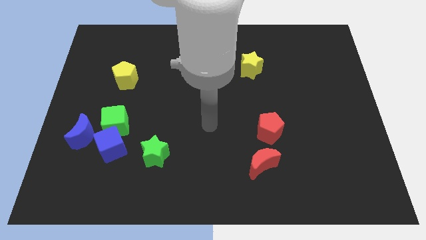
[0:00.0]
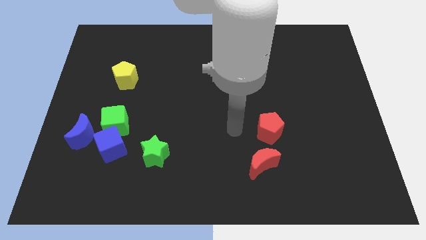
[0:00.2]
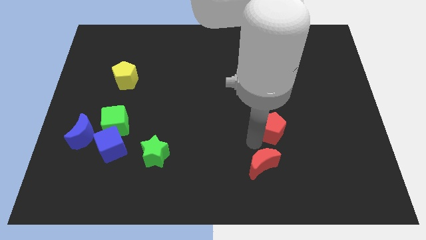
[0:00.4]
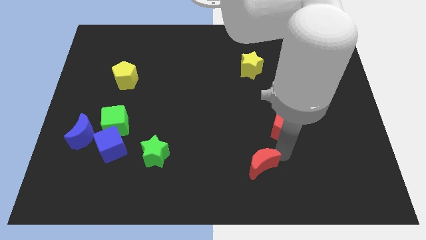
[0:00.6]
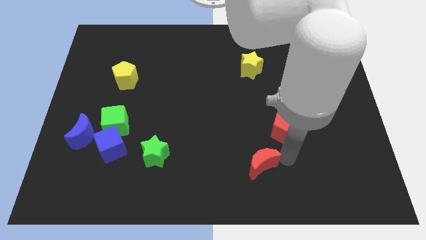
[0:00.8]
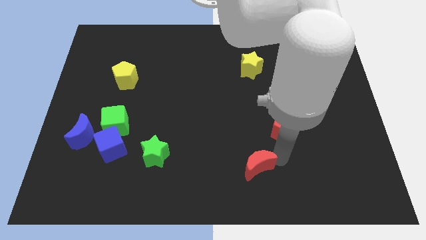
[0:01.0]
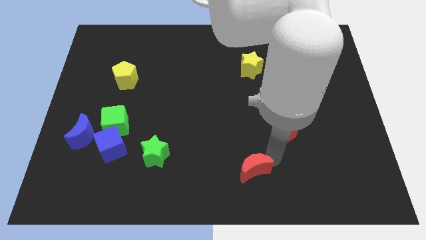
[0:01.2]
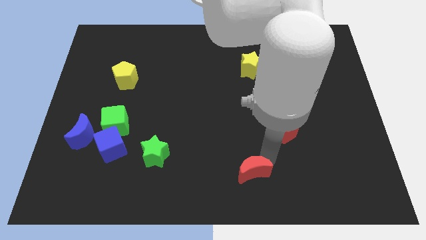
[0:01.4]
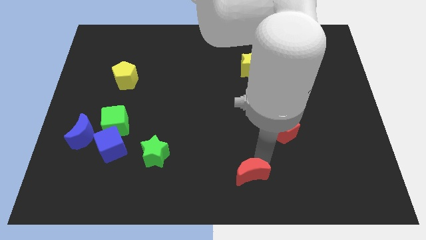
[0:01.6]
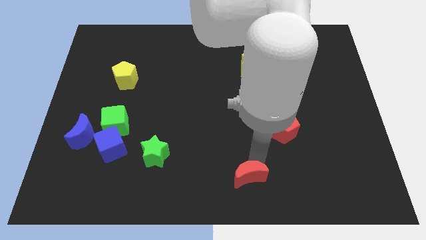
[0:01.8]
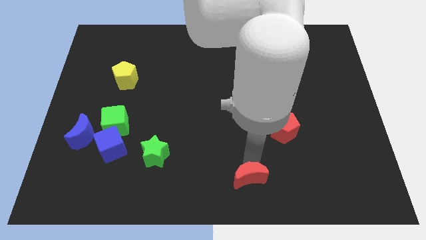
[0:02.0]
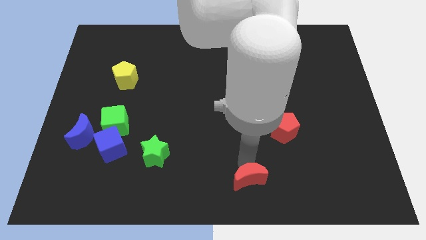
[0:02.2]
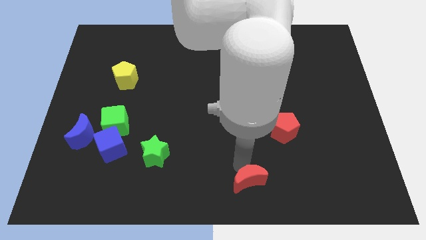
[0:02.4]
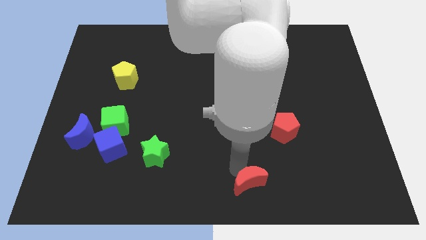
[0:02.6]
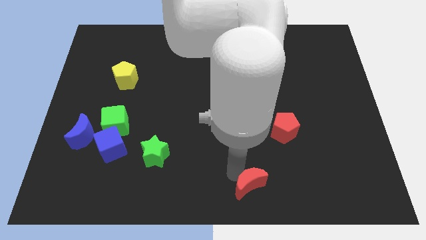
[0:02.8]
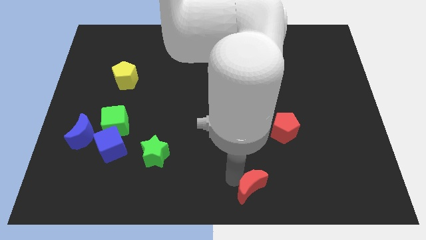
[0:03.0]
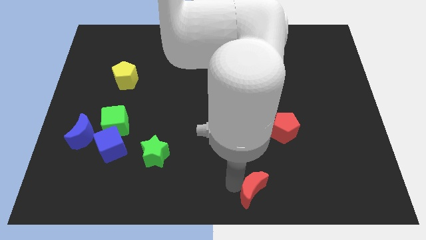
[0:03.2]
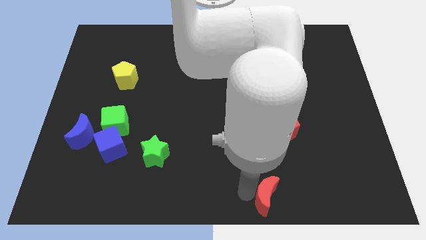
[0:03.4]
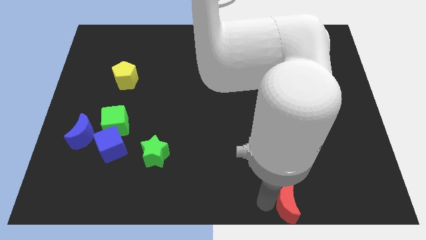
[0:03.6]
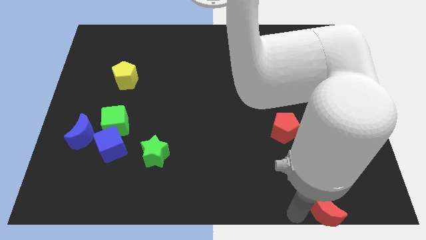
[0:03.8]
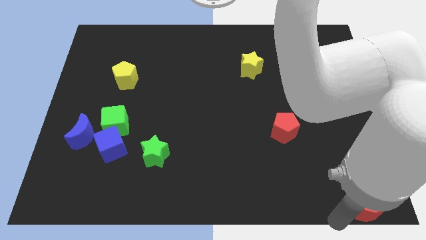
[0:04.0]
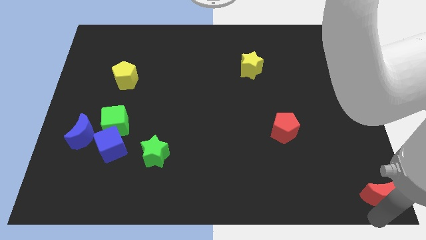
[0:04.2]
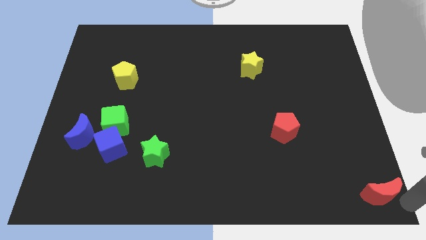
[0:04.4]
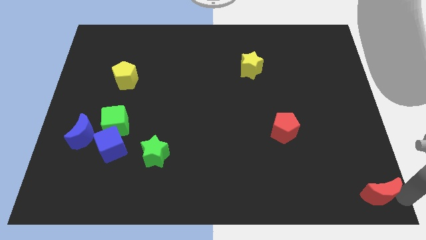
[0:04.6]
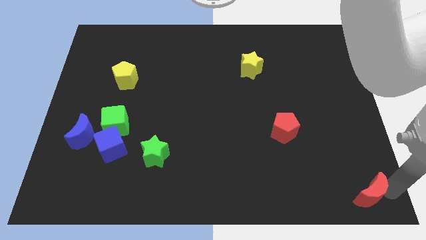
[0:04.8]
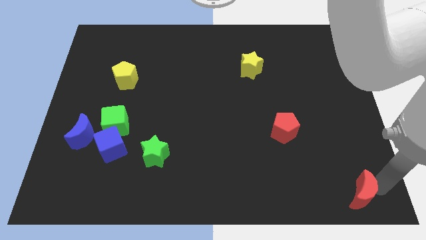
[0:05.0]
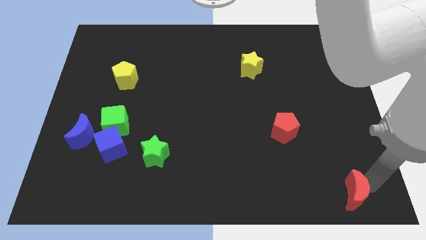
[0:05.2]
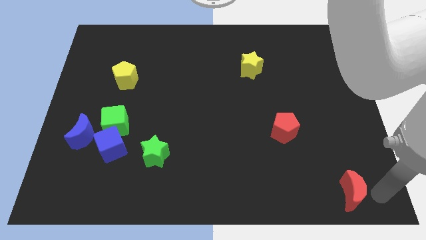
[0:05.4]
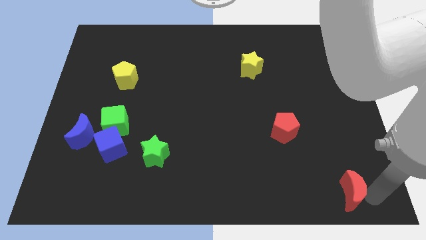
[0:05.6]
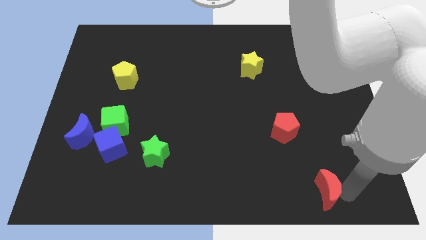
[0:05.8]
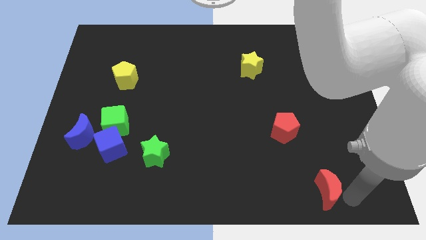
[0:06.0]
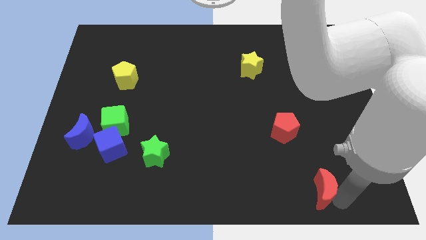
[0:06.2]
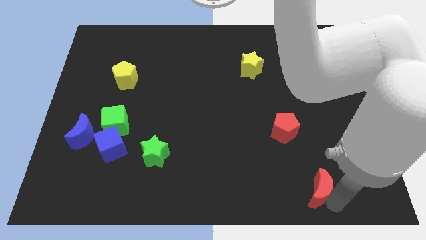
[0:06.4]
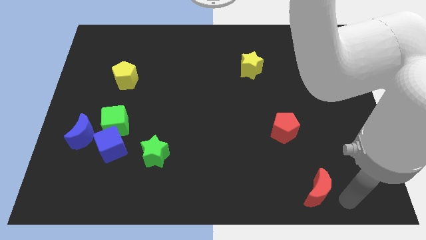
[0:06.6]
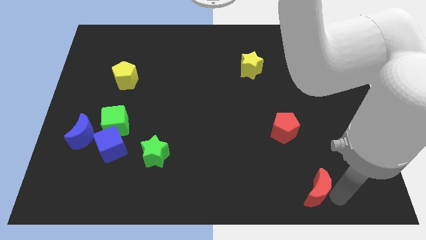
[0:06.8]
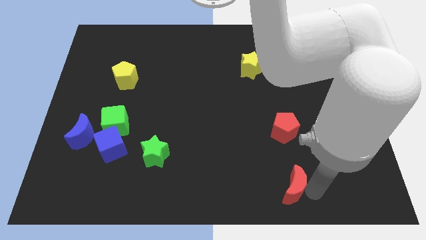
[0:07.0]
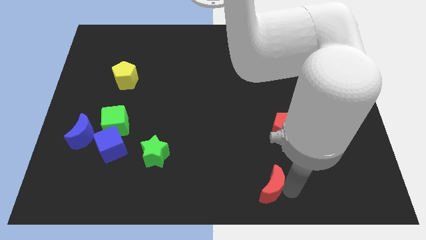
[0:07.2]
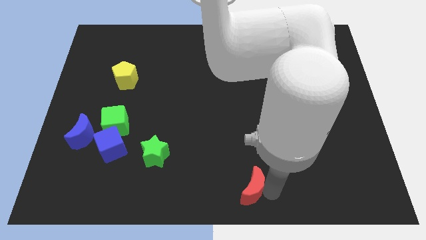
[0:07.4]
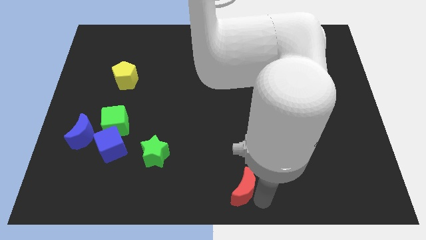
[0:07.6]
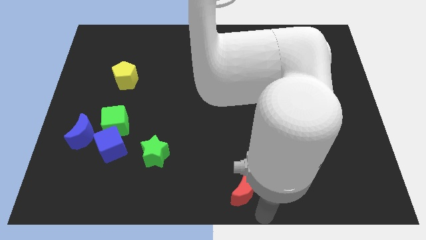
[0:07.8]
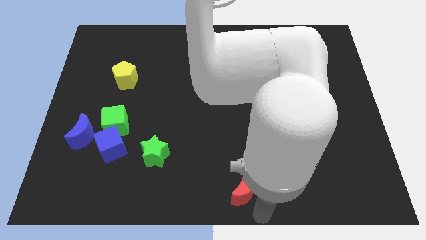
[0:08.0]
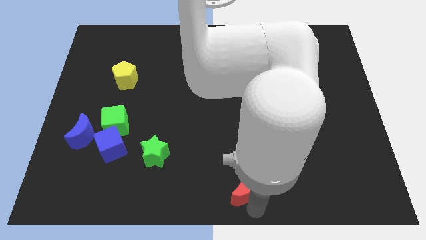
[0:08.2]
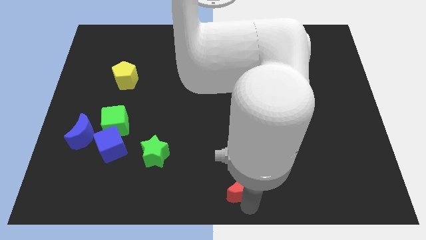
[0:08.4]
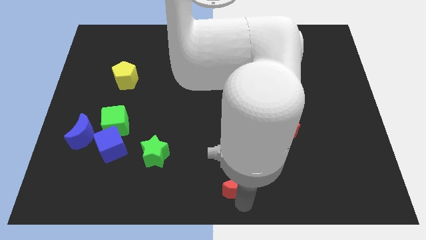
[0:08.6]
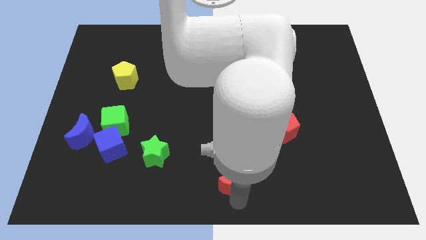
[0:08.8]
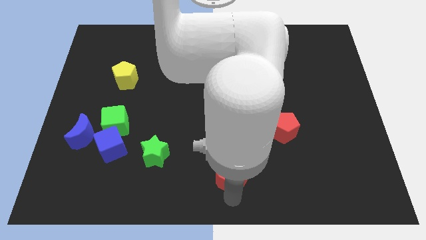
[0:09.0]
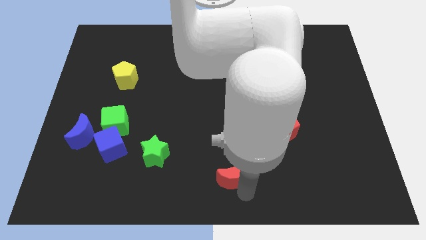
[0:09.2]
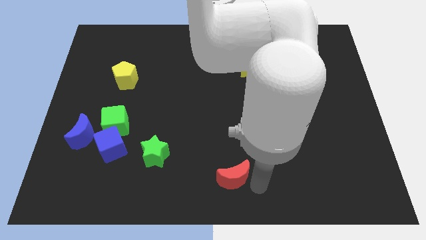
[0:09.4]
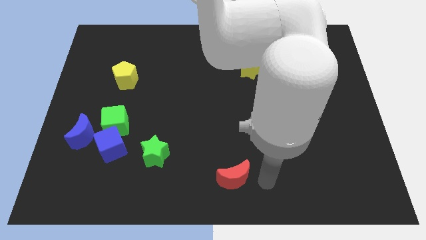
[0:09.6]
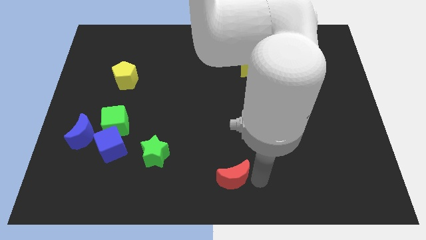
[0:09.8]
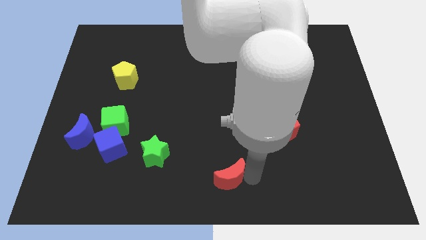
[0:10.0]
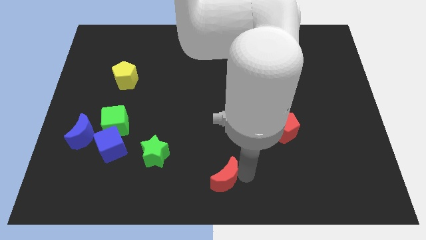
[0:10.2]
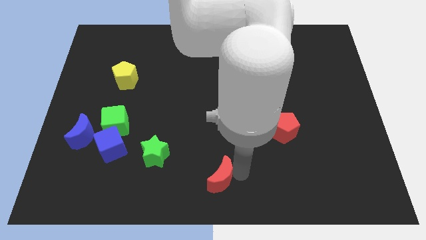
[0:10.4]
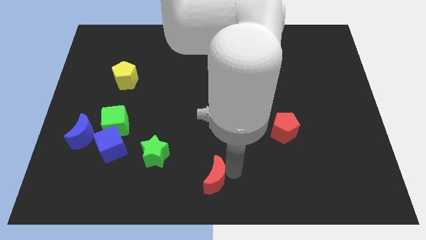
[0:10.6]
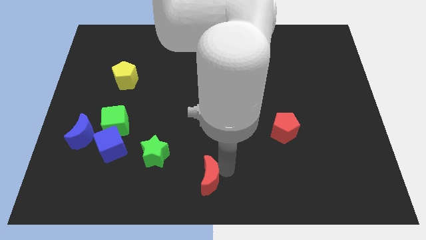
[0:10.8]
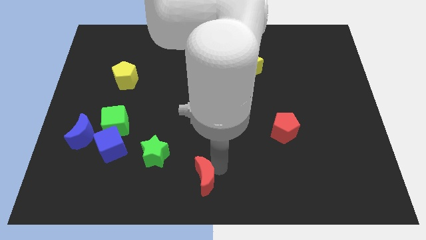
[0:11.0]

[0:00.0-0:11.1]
move the red moon to the bottom right side of the green star

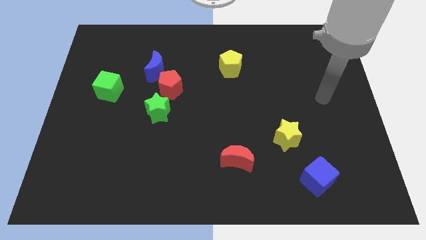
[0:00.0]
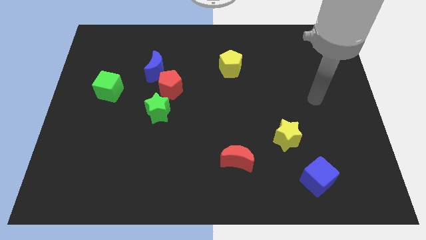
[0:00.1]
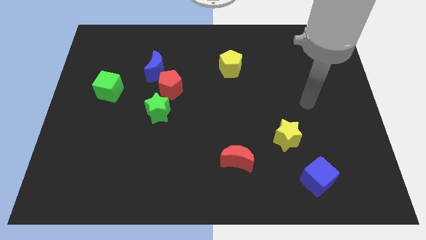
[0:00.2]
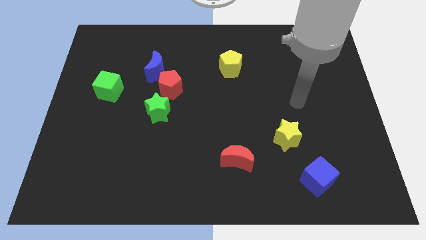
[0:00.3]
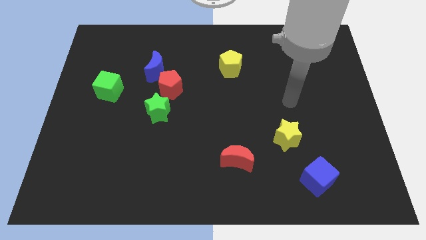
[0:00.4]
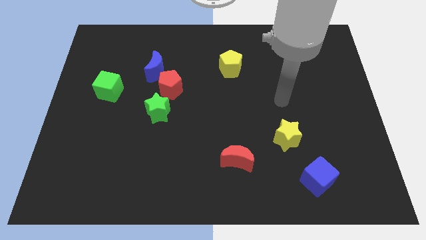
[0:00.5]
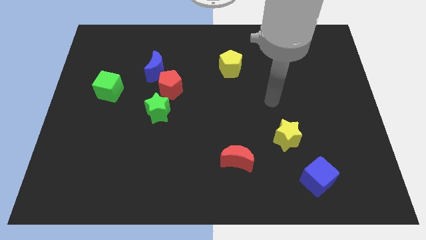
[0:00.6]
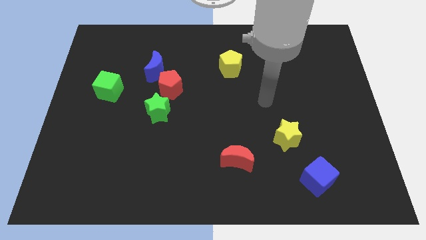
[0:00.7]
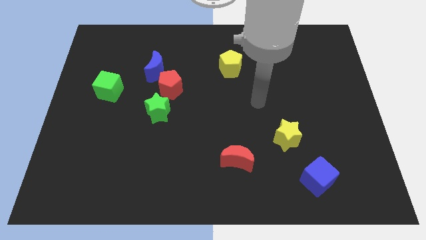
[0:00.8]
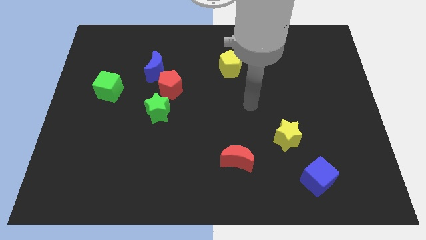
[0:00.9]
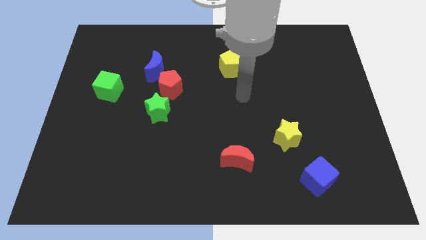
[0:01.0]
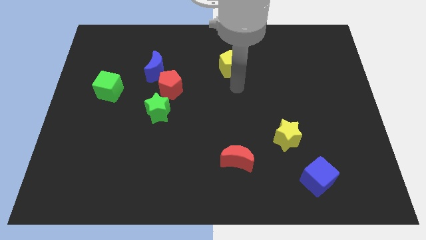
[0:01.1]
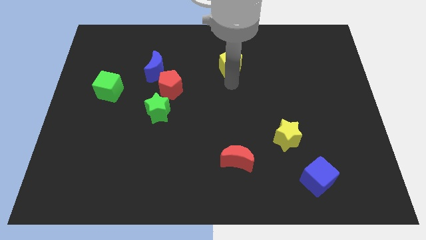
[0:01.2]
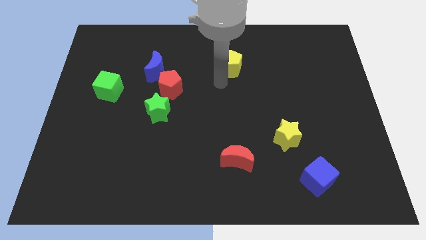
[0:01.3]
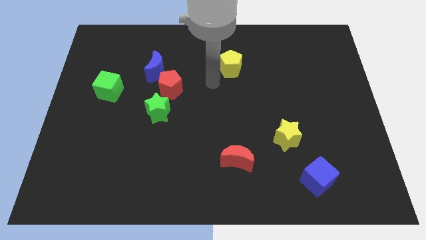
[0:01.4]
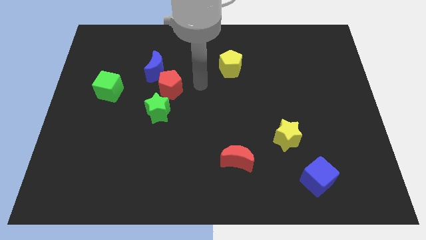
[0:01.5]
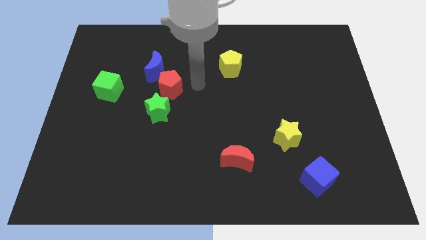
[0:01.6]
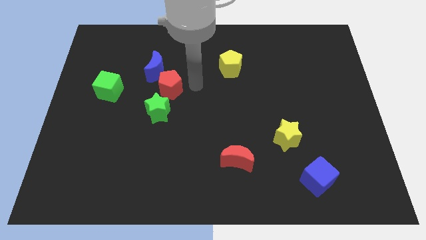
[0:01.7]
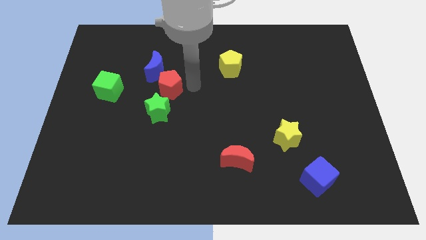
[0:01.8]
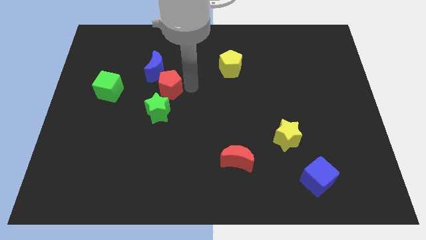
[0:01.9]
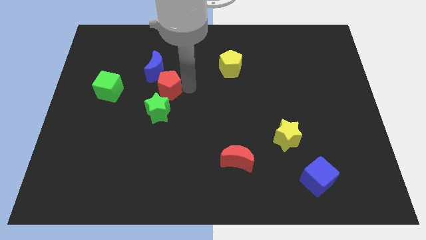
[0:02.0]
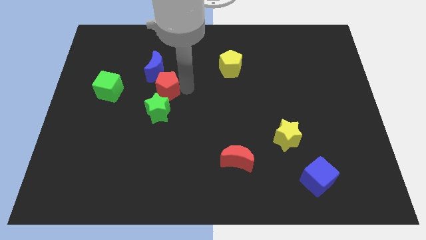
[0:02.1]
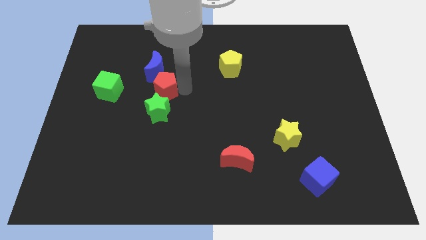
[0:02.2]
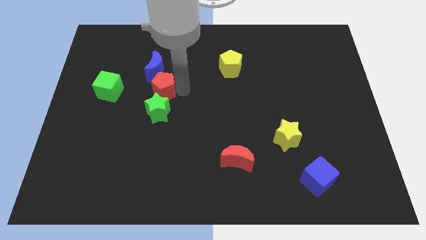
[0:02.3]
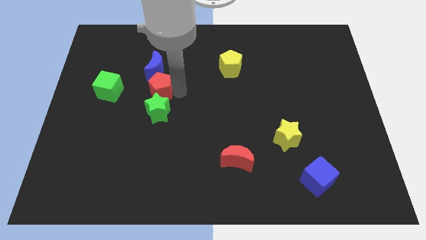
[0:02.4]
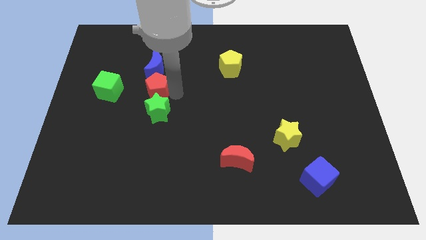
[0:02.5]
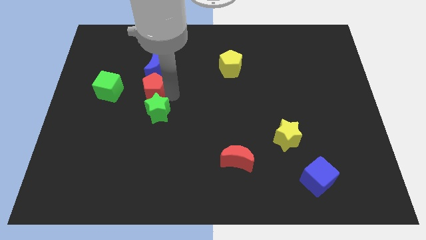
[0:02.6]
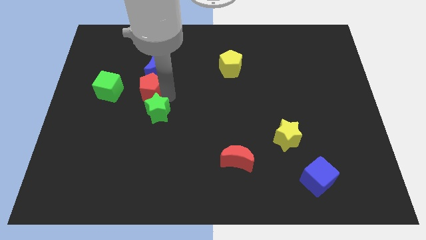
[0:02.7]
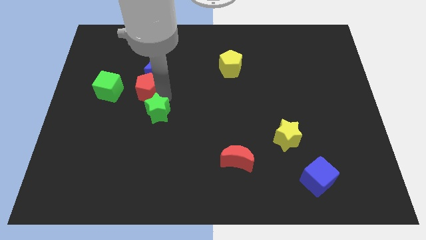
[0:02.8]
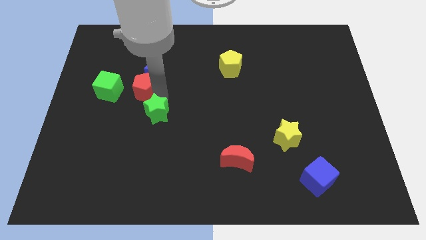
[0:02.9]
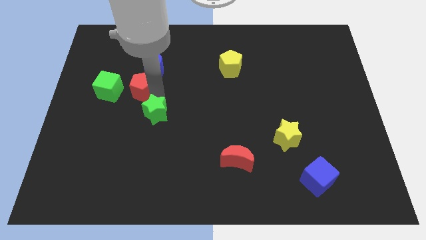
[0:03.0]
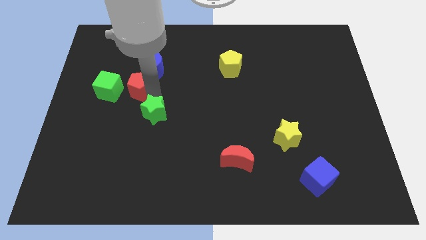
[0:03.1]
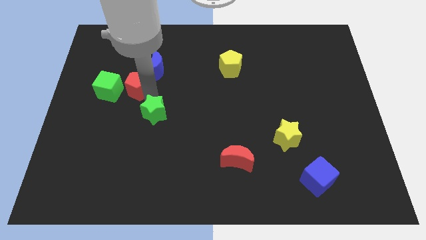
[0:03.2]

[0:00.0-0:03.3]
push the red pentagon diagonally up and to the right of the green cube
